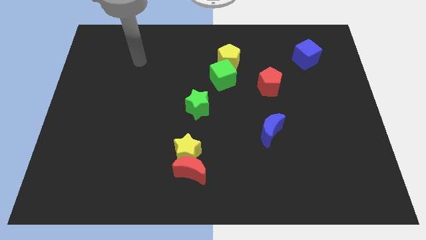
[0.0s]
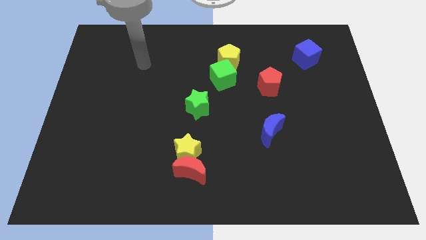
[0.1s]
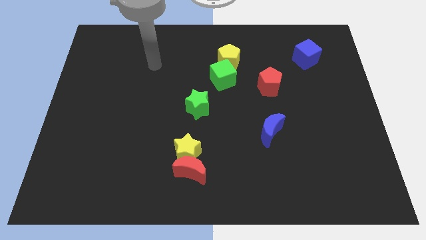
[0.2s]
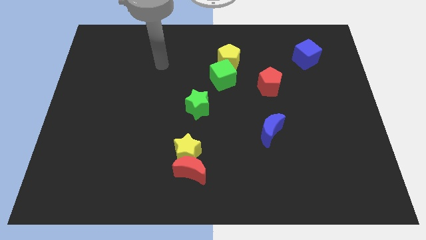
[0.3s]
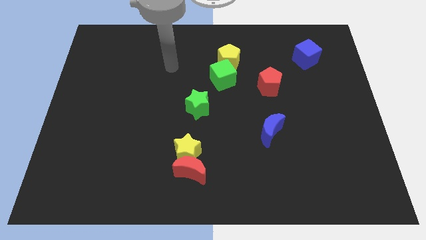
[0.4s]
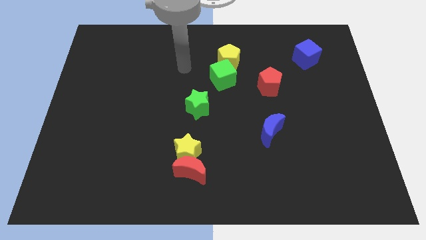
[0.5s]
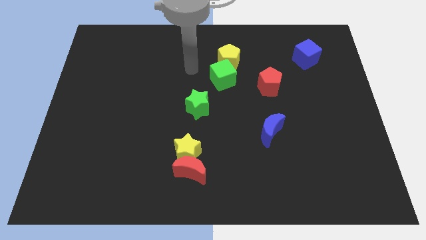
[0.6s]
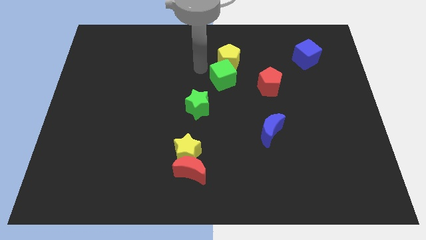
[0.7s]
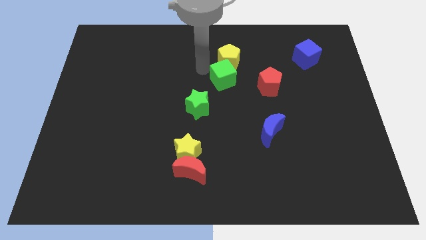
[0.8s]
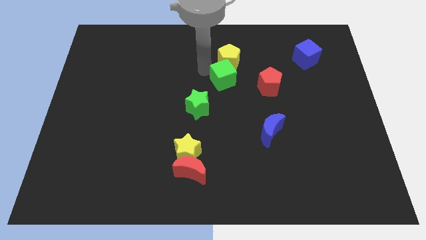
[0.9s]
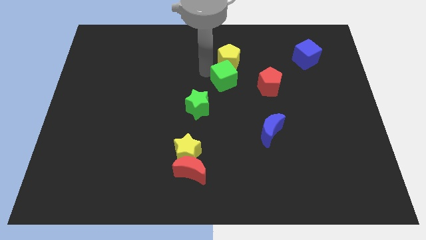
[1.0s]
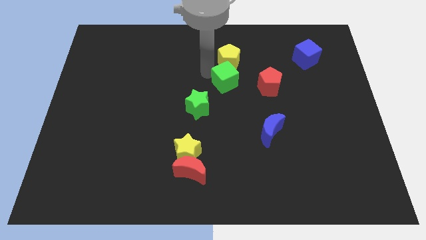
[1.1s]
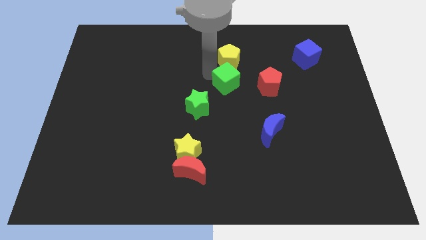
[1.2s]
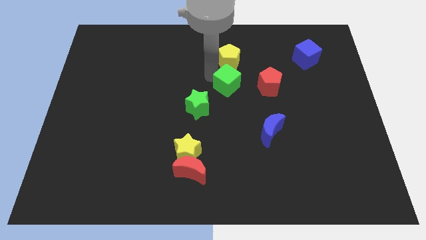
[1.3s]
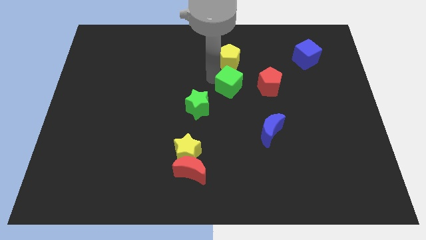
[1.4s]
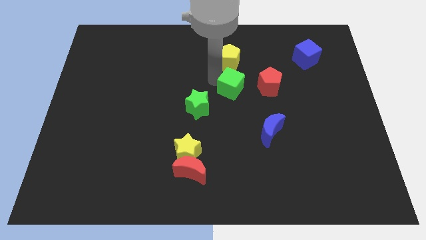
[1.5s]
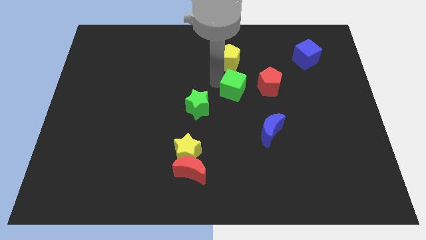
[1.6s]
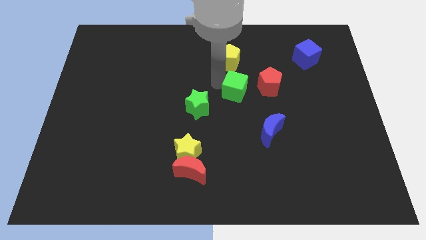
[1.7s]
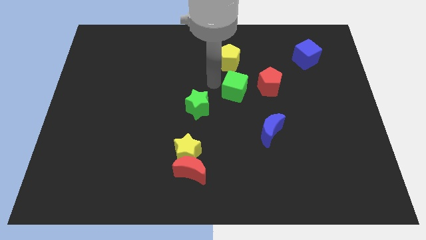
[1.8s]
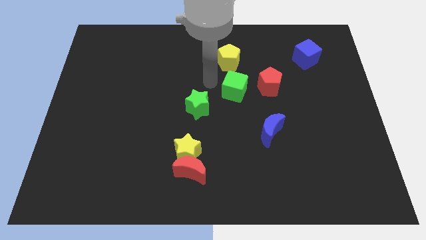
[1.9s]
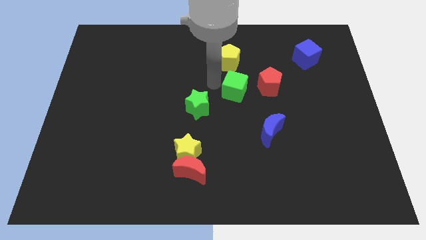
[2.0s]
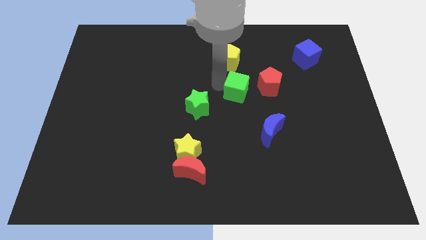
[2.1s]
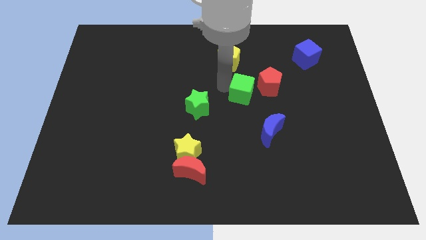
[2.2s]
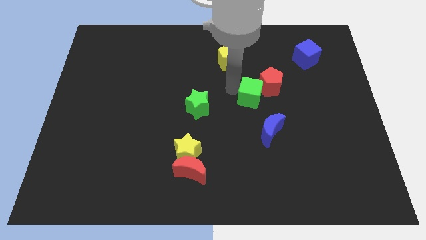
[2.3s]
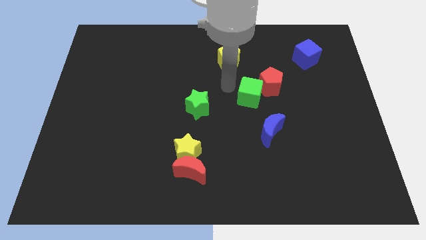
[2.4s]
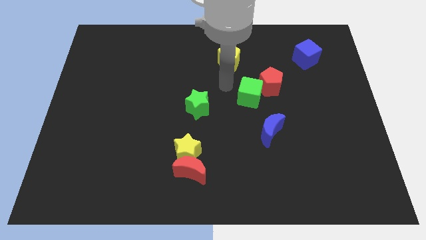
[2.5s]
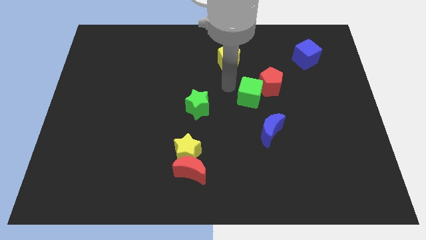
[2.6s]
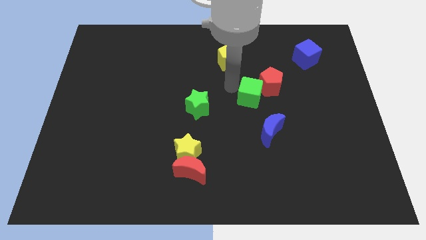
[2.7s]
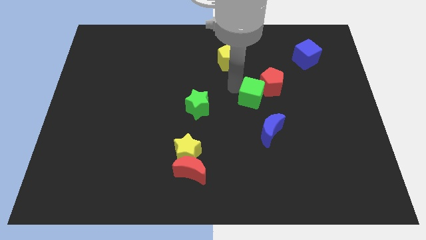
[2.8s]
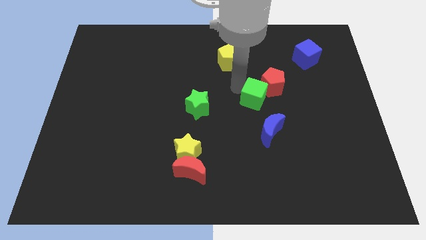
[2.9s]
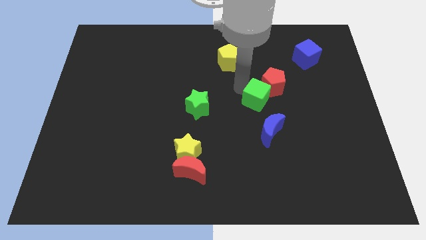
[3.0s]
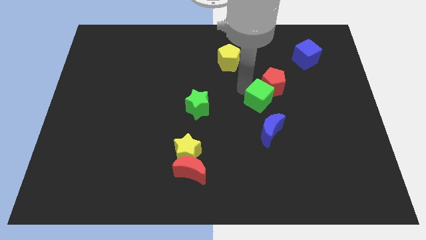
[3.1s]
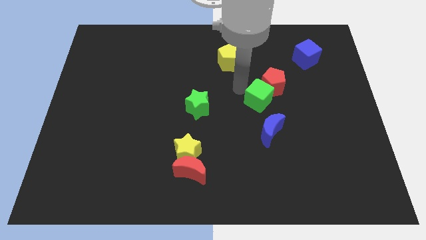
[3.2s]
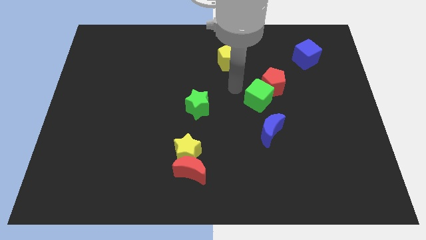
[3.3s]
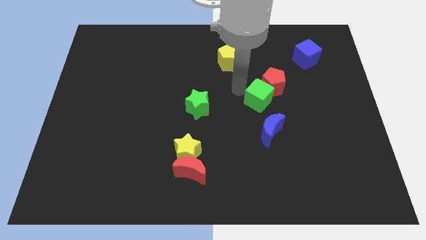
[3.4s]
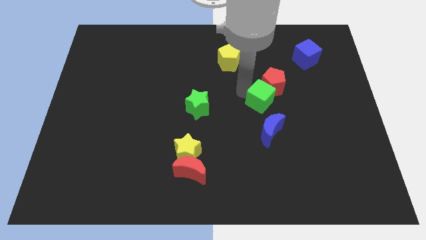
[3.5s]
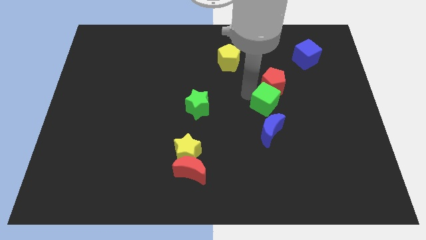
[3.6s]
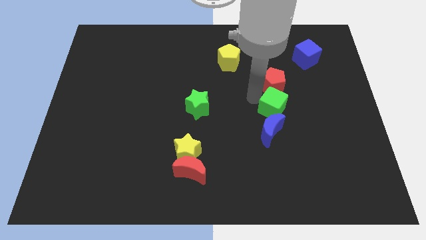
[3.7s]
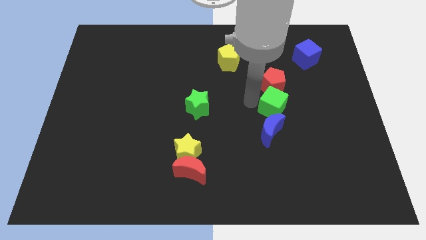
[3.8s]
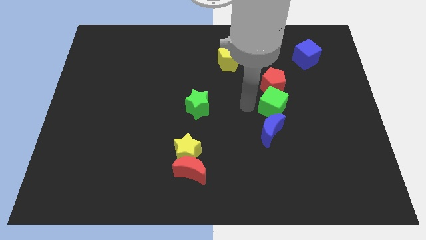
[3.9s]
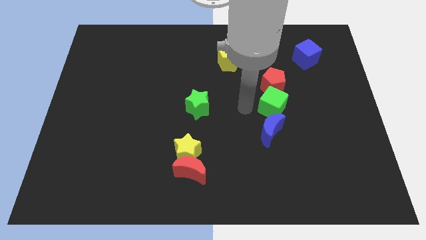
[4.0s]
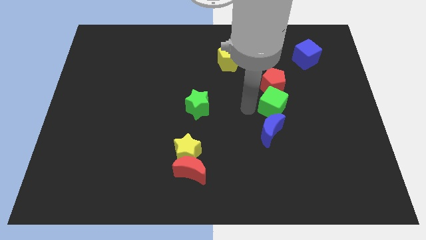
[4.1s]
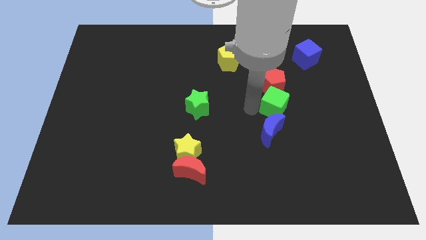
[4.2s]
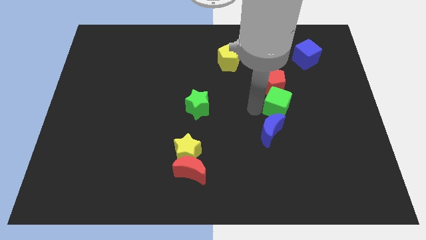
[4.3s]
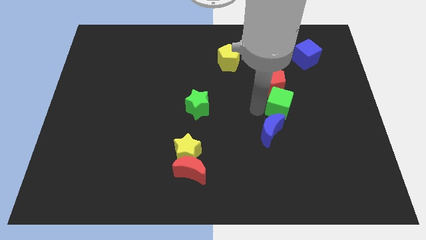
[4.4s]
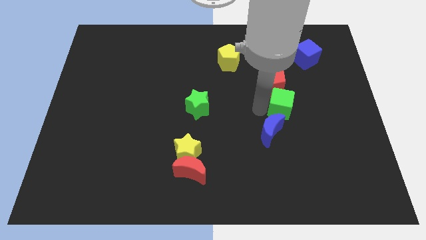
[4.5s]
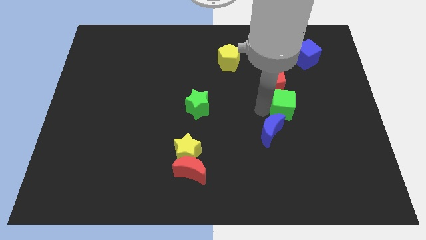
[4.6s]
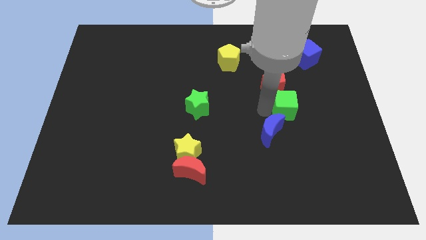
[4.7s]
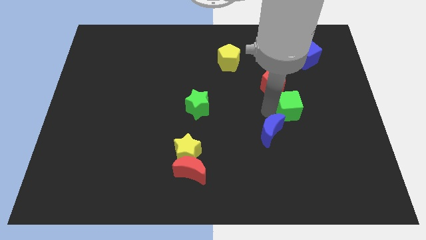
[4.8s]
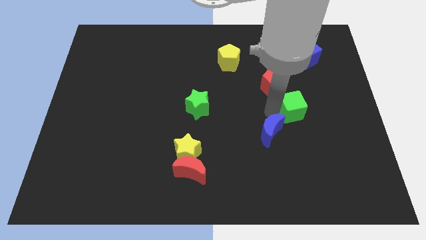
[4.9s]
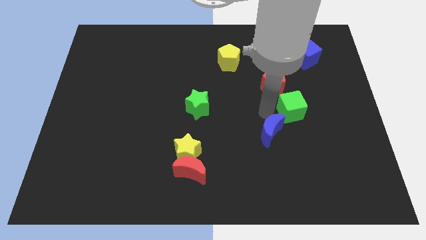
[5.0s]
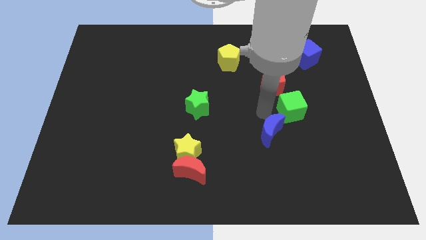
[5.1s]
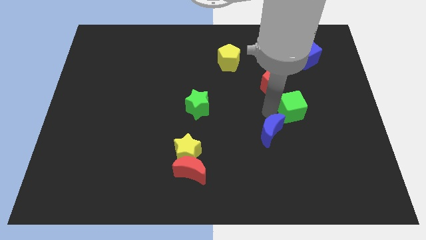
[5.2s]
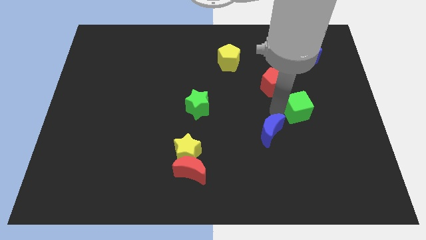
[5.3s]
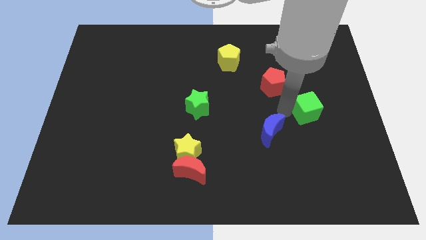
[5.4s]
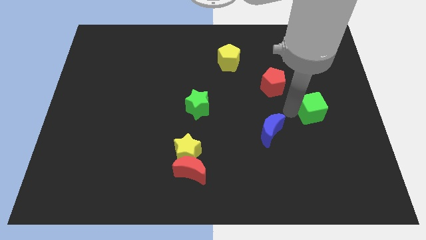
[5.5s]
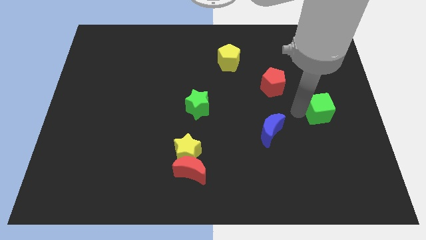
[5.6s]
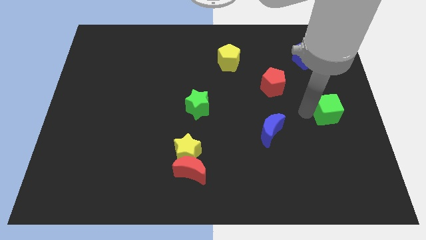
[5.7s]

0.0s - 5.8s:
move the green cube to the center right
